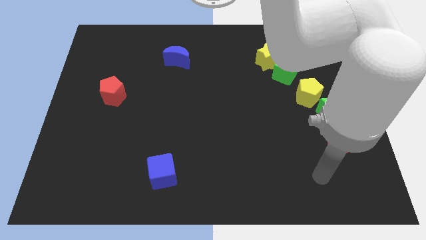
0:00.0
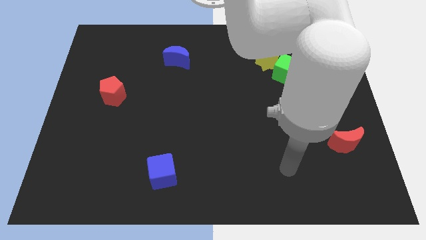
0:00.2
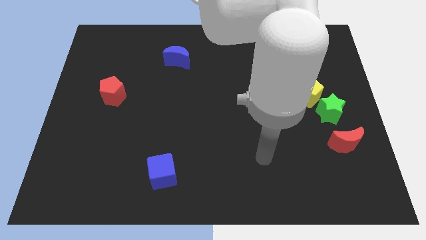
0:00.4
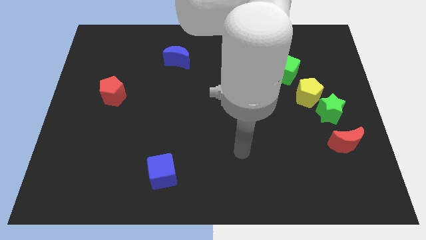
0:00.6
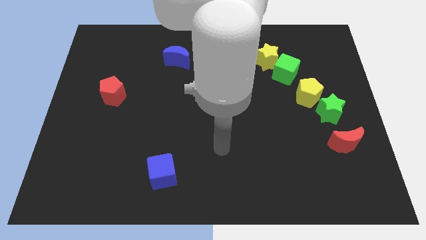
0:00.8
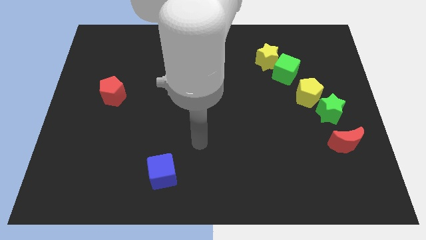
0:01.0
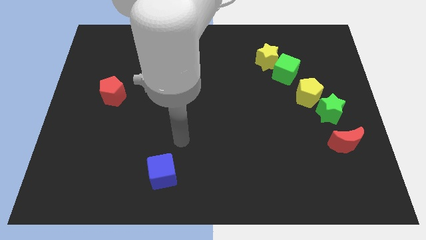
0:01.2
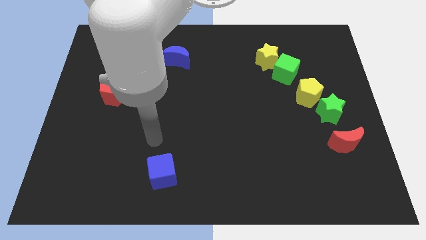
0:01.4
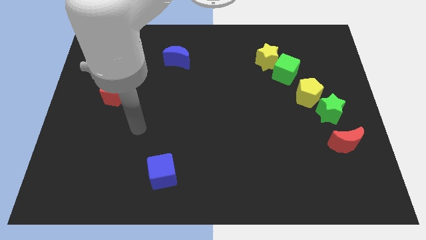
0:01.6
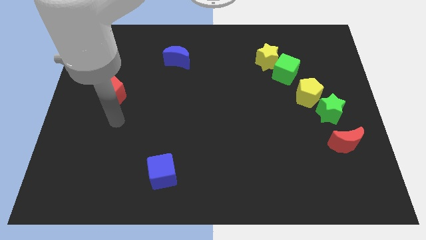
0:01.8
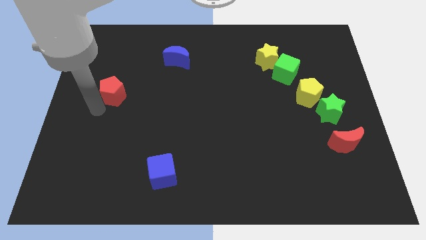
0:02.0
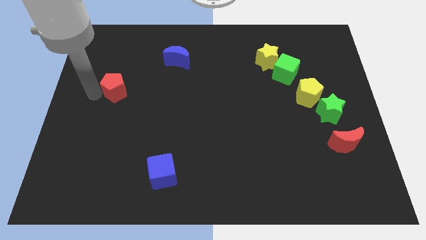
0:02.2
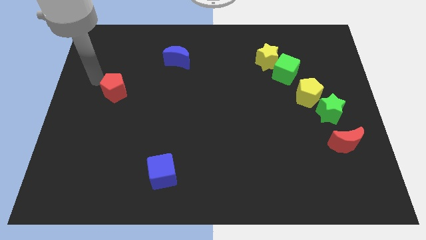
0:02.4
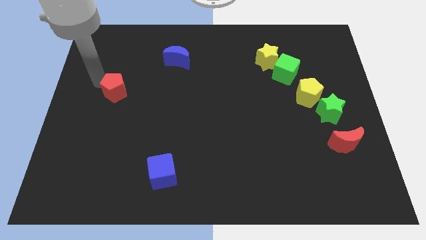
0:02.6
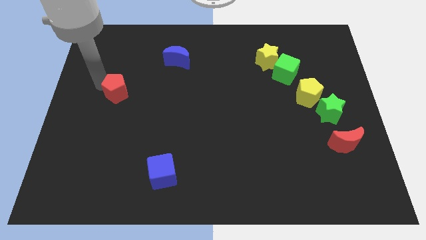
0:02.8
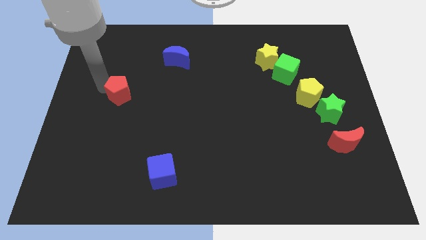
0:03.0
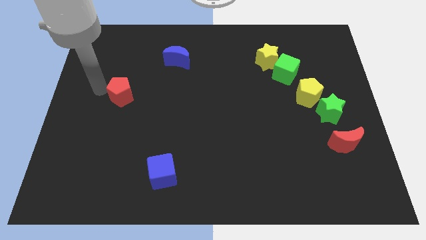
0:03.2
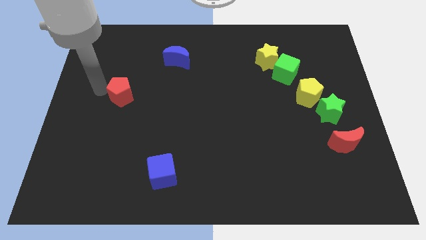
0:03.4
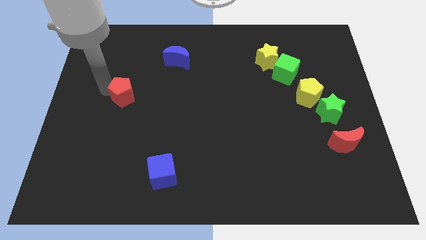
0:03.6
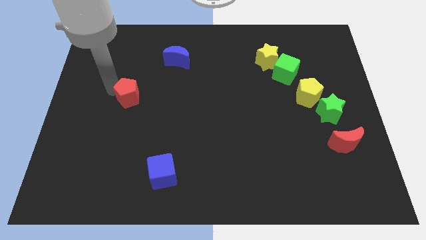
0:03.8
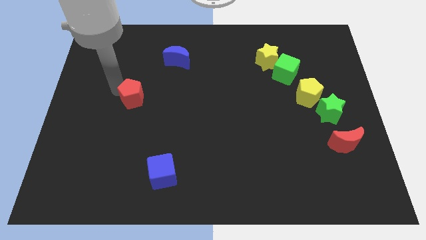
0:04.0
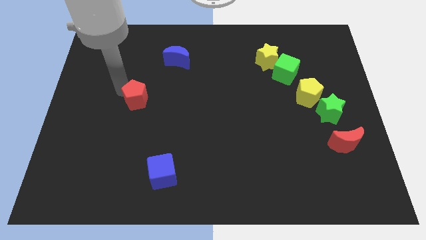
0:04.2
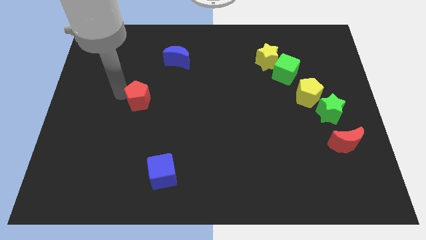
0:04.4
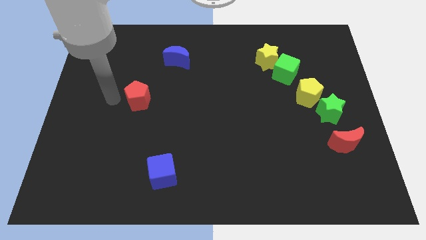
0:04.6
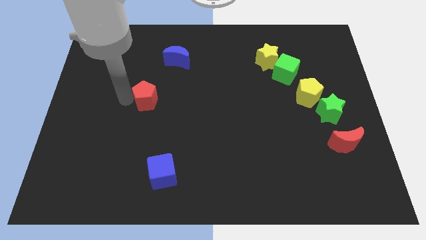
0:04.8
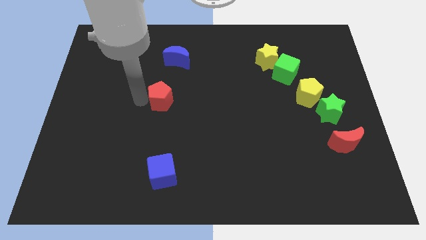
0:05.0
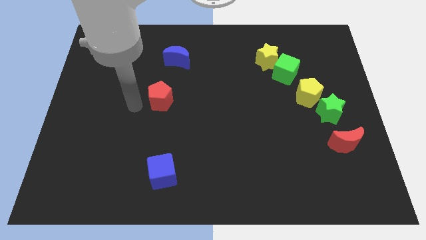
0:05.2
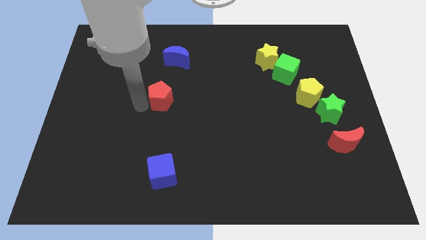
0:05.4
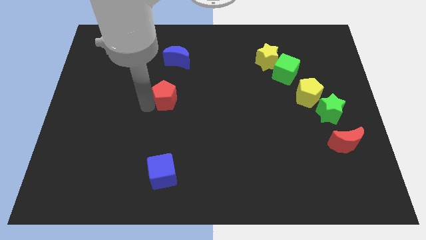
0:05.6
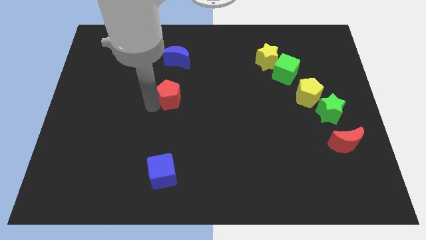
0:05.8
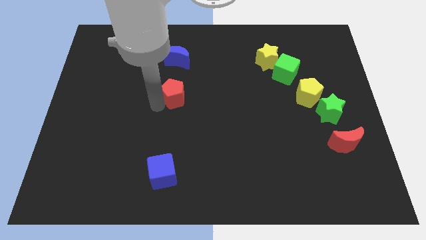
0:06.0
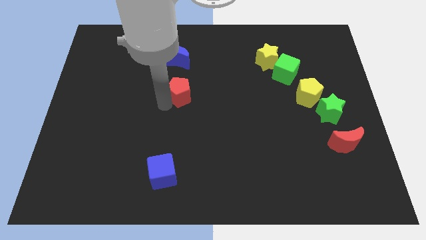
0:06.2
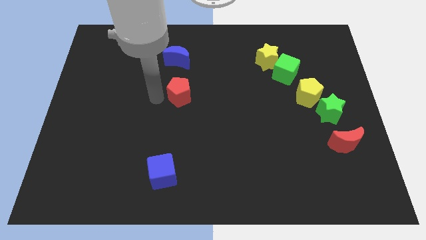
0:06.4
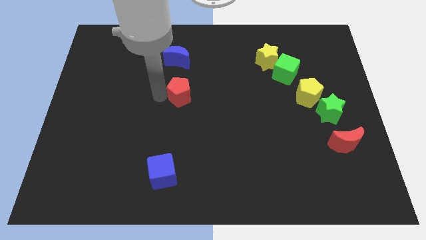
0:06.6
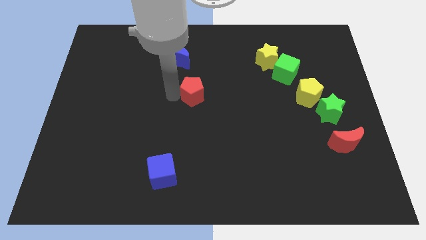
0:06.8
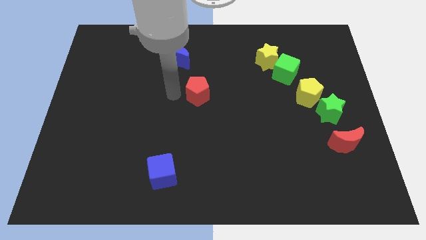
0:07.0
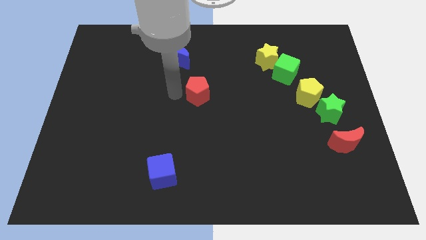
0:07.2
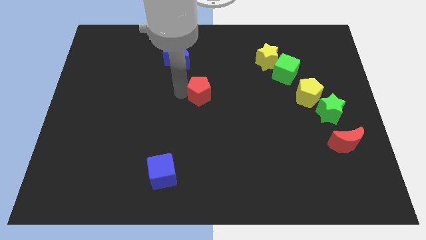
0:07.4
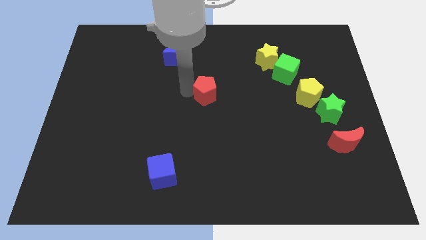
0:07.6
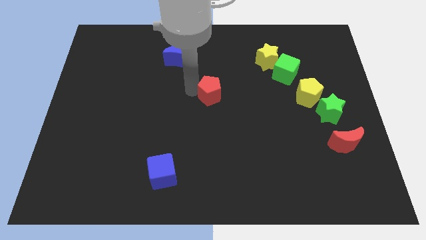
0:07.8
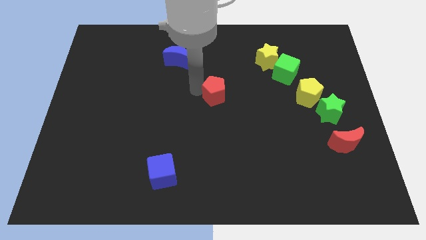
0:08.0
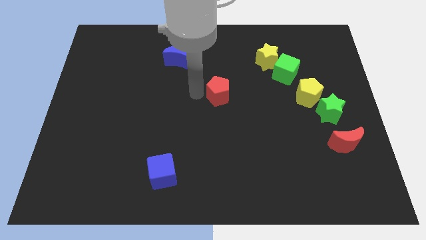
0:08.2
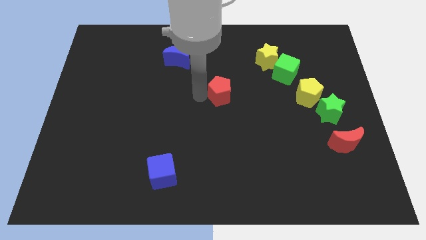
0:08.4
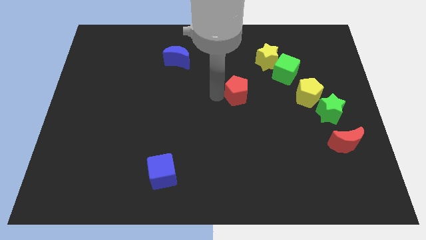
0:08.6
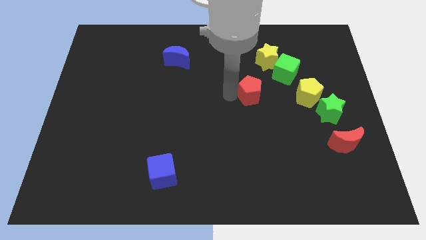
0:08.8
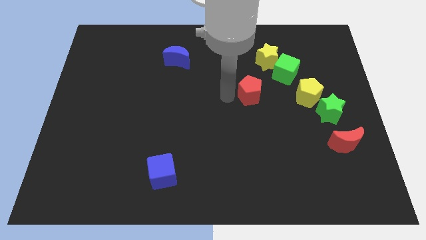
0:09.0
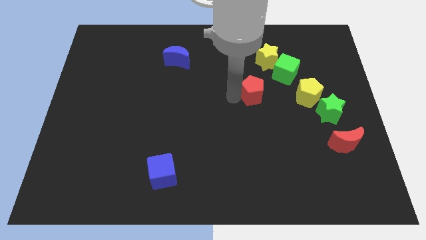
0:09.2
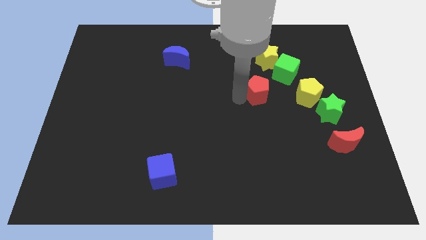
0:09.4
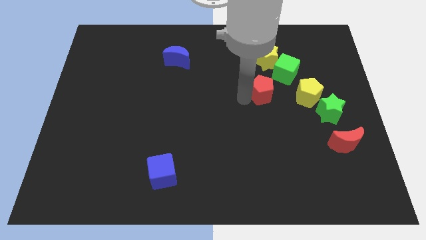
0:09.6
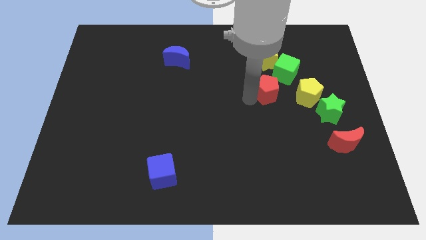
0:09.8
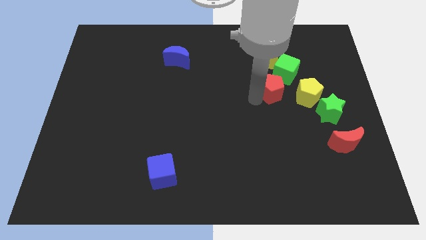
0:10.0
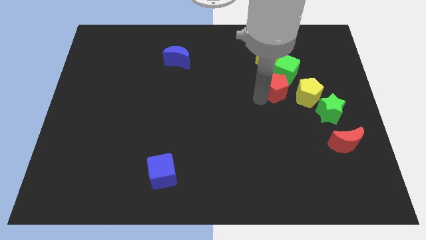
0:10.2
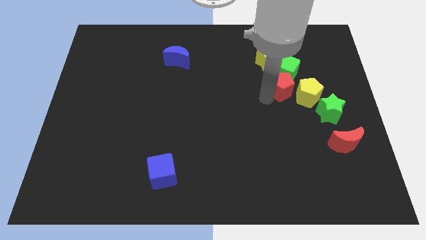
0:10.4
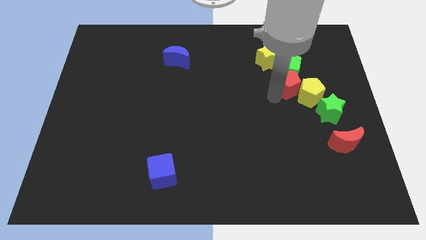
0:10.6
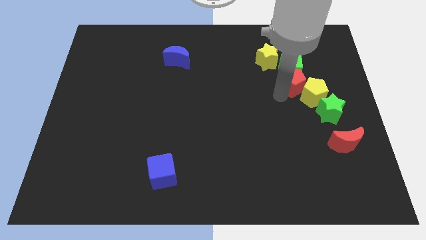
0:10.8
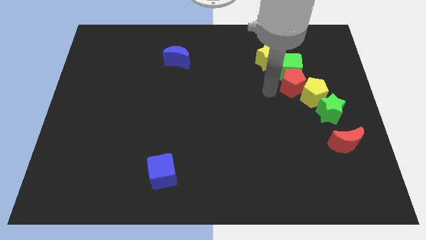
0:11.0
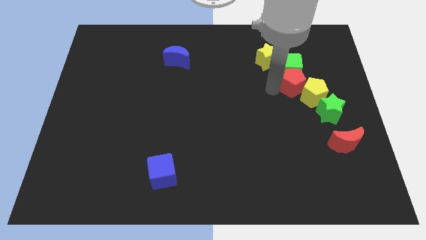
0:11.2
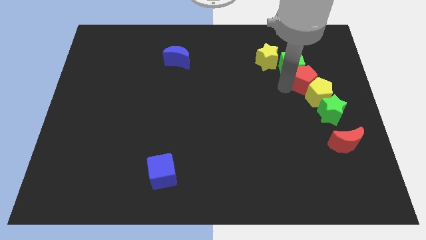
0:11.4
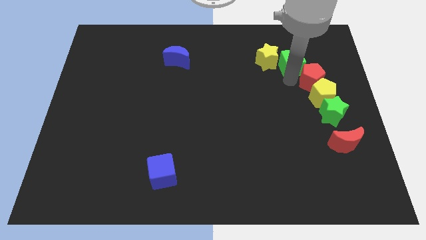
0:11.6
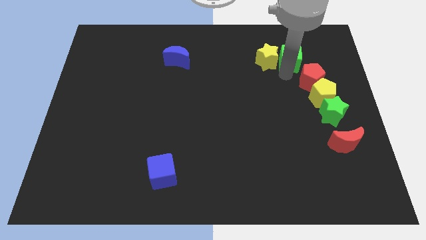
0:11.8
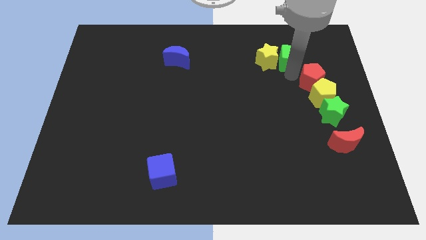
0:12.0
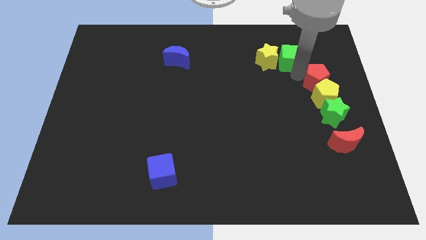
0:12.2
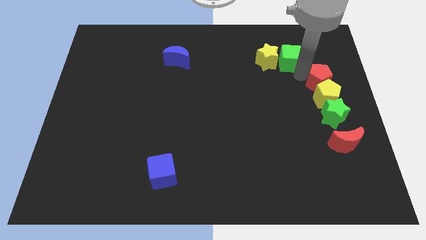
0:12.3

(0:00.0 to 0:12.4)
move the red pentagon to the center right

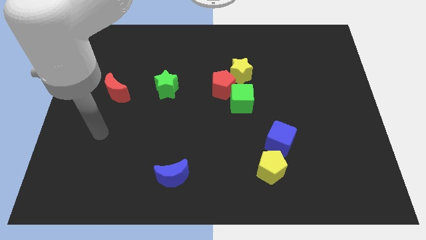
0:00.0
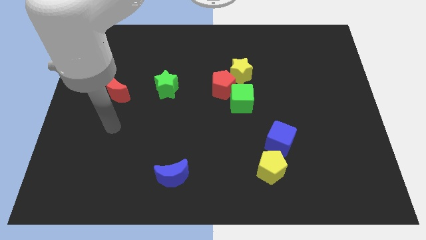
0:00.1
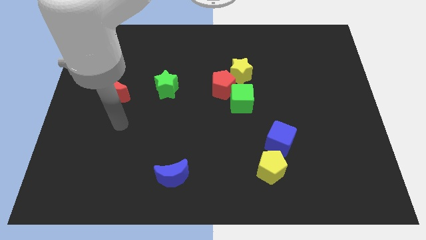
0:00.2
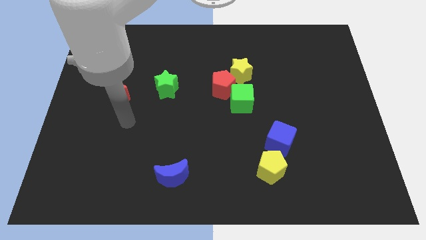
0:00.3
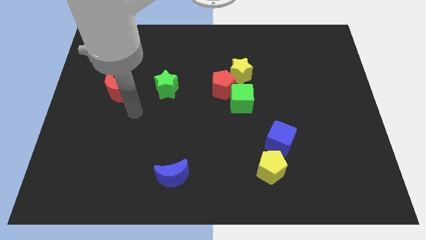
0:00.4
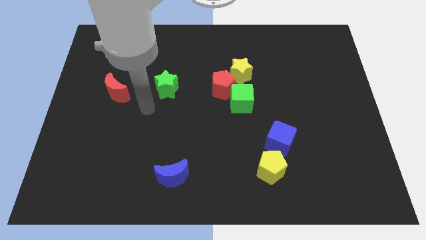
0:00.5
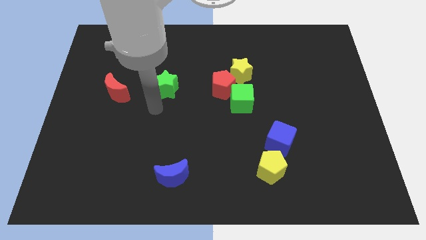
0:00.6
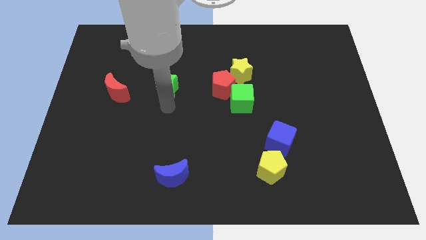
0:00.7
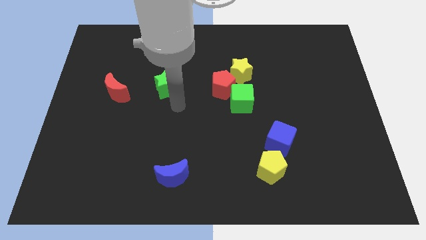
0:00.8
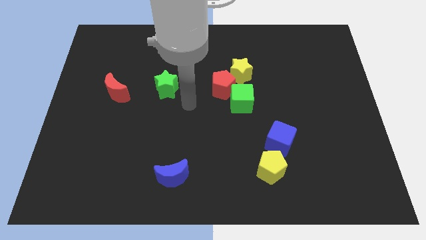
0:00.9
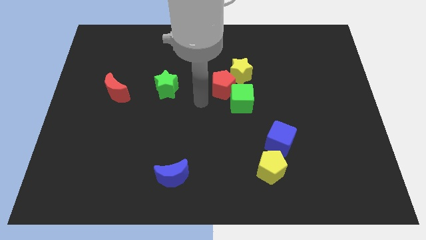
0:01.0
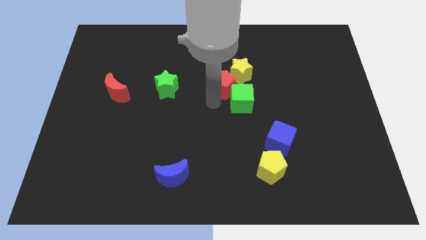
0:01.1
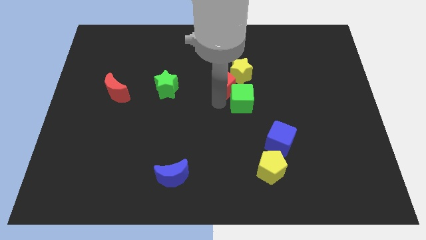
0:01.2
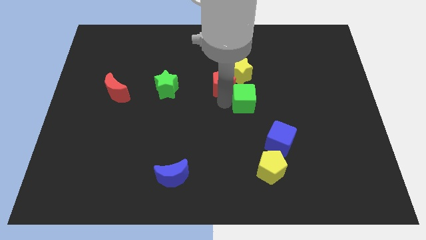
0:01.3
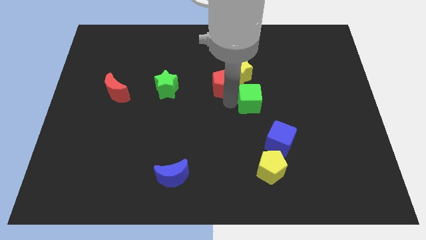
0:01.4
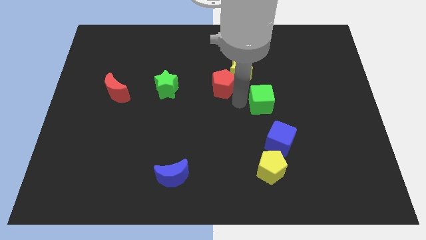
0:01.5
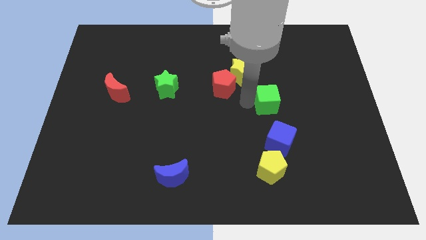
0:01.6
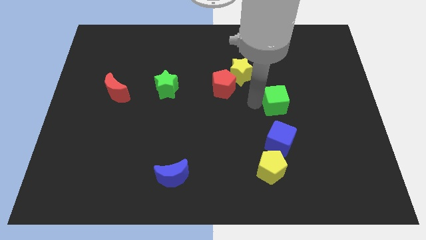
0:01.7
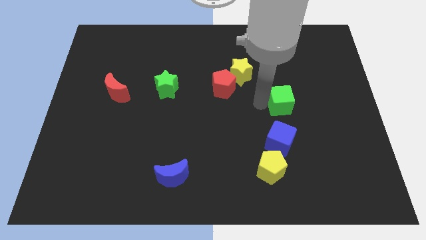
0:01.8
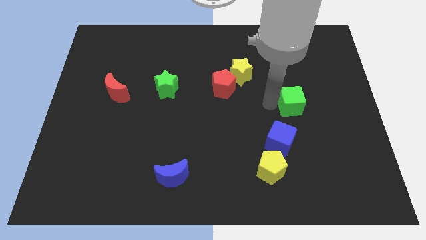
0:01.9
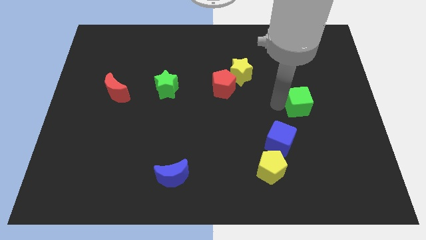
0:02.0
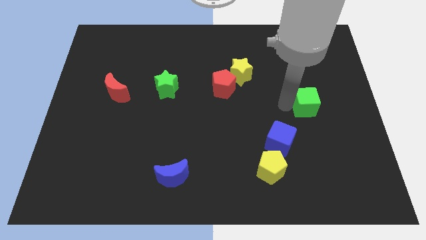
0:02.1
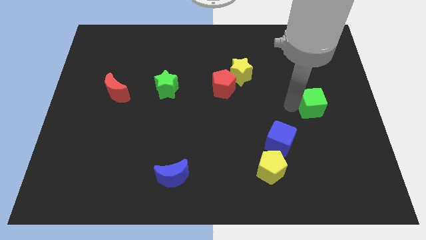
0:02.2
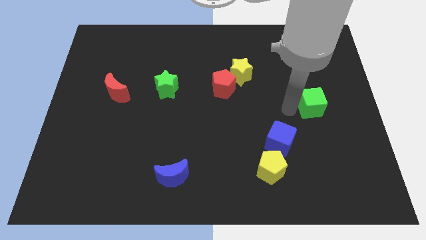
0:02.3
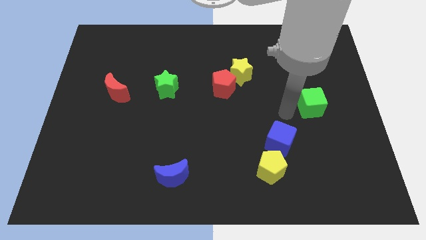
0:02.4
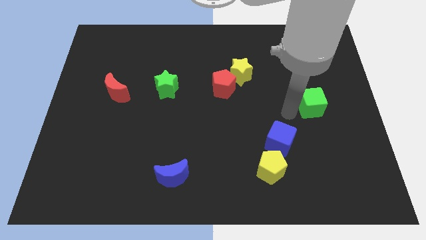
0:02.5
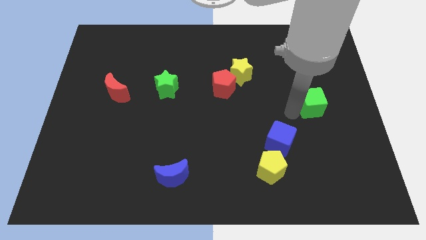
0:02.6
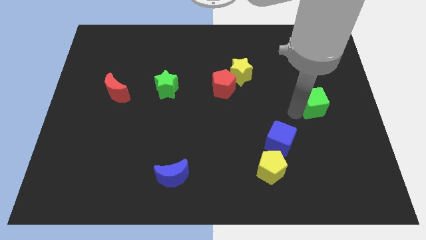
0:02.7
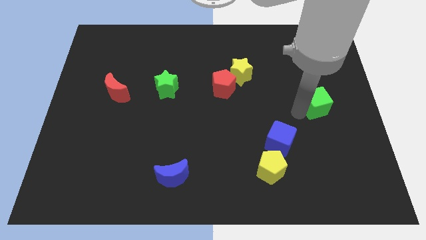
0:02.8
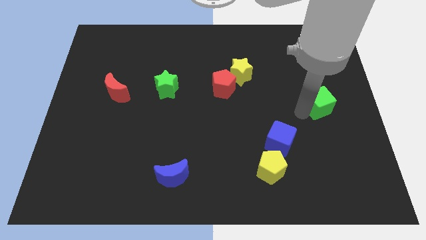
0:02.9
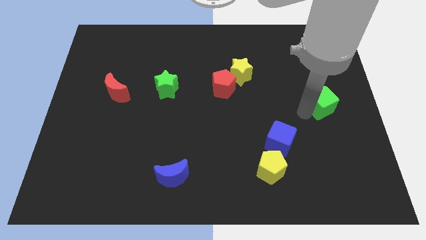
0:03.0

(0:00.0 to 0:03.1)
push the green cube to the right side
